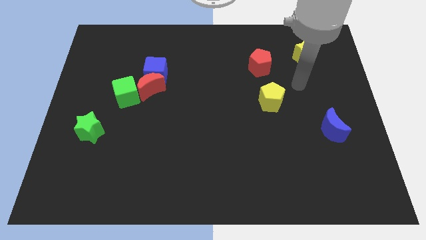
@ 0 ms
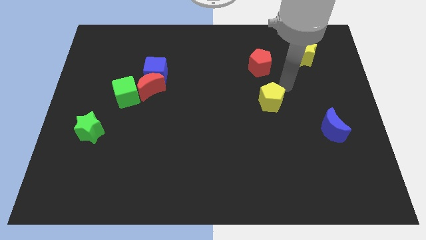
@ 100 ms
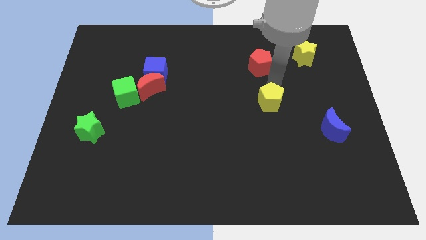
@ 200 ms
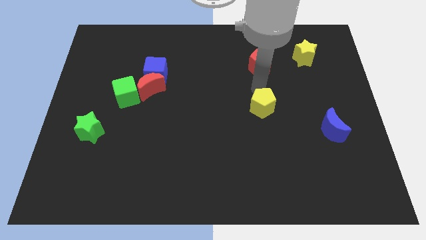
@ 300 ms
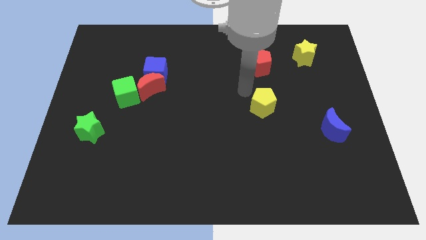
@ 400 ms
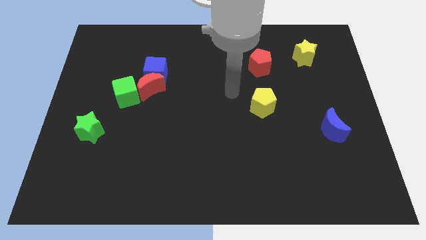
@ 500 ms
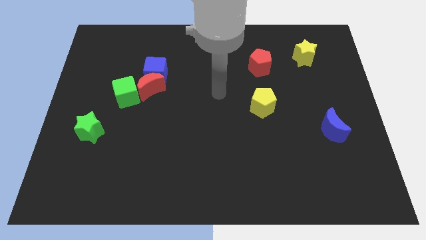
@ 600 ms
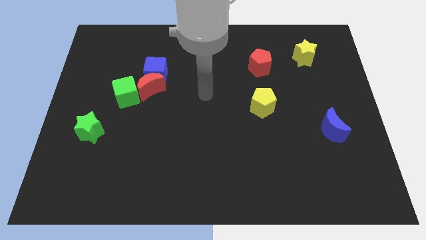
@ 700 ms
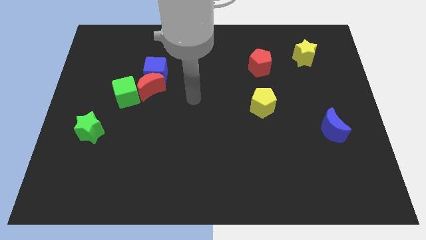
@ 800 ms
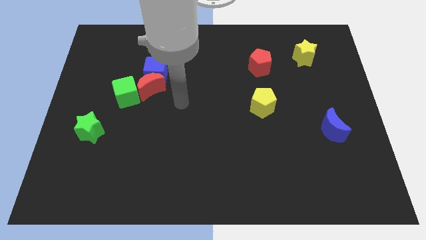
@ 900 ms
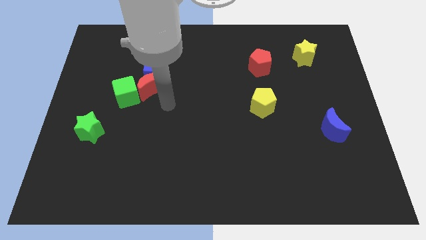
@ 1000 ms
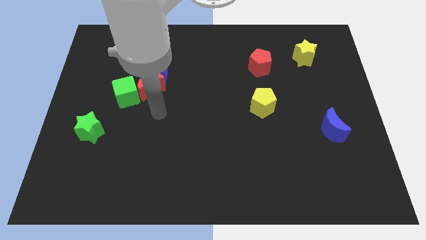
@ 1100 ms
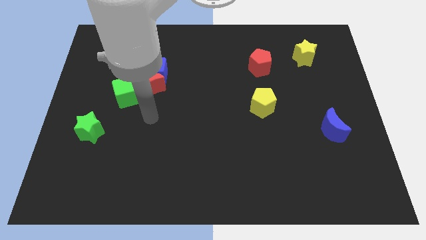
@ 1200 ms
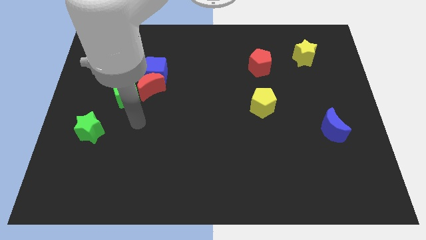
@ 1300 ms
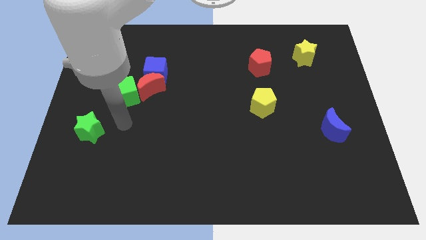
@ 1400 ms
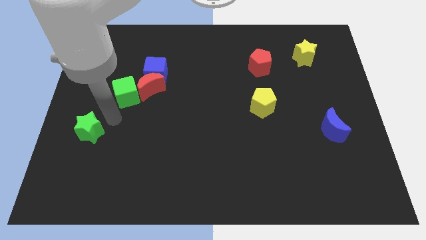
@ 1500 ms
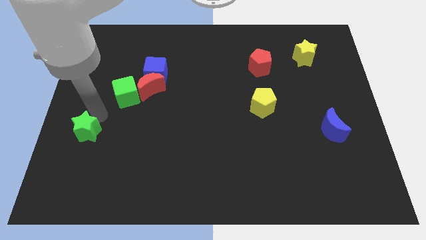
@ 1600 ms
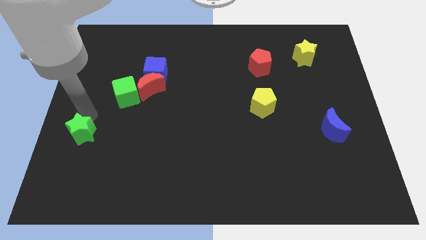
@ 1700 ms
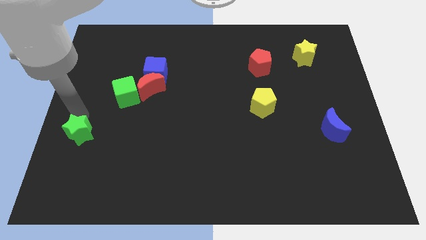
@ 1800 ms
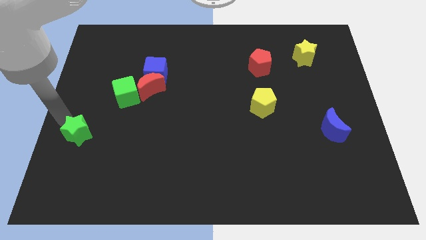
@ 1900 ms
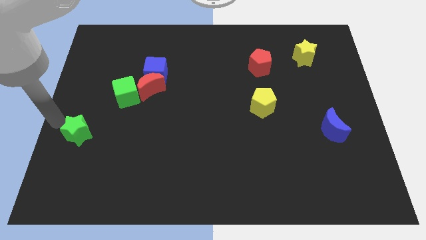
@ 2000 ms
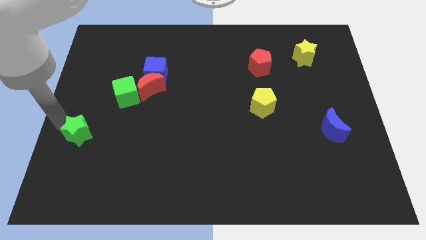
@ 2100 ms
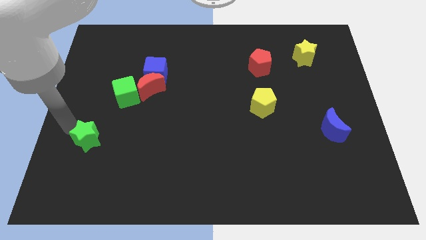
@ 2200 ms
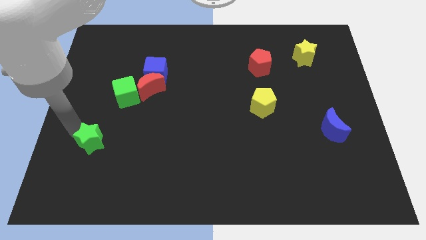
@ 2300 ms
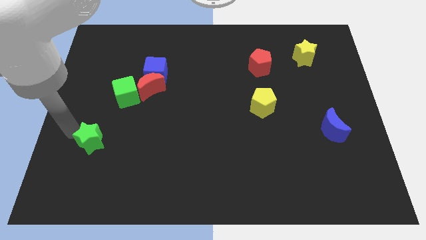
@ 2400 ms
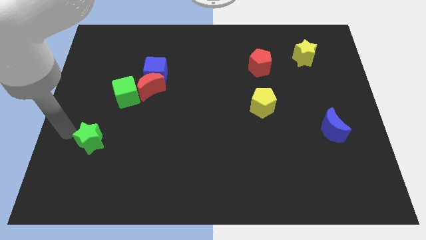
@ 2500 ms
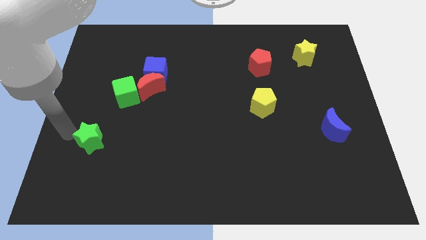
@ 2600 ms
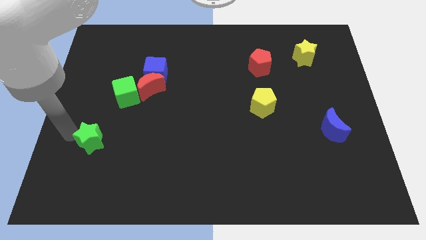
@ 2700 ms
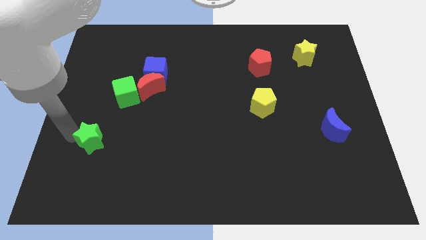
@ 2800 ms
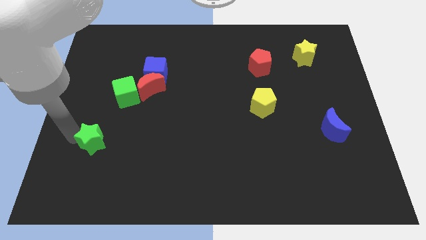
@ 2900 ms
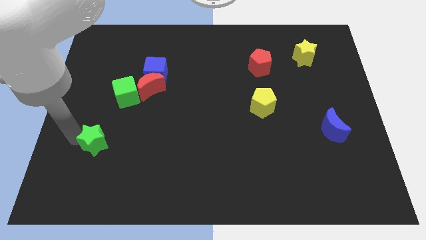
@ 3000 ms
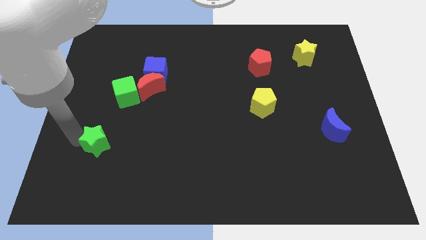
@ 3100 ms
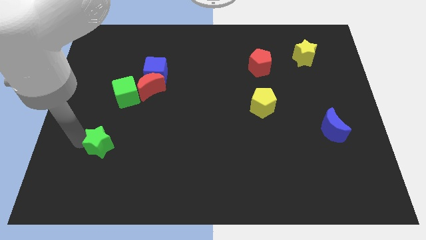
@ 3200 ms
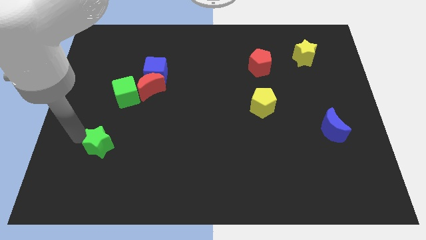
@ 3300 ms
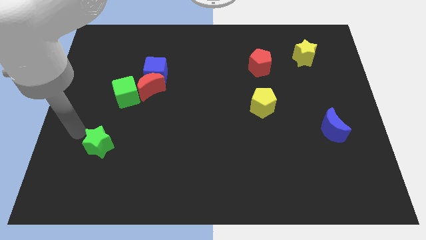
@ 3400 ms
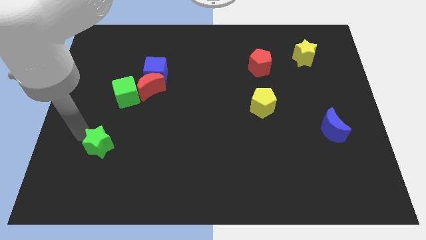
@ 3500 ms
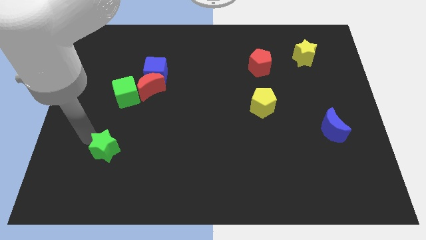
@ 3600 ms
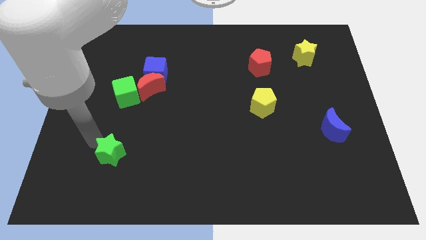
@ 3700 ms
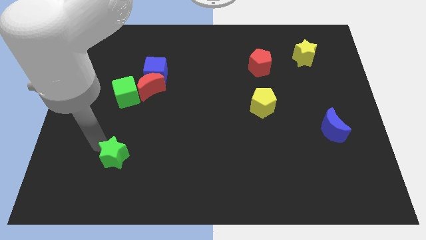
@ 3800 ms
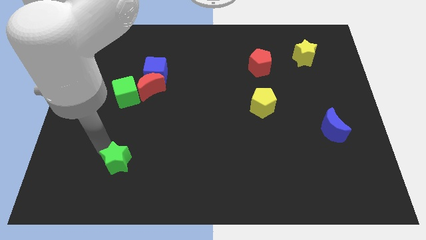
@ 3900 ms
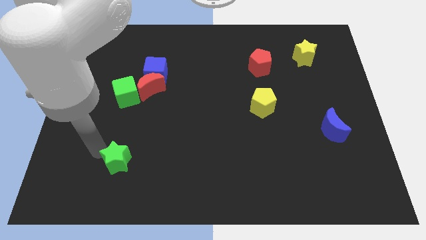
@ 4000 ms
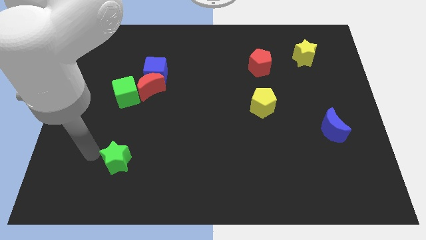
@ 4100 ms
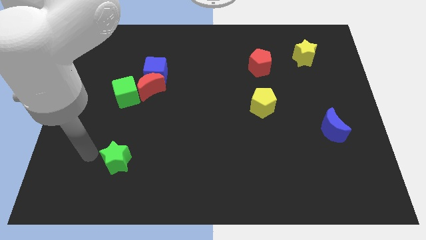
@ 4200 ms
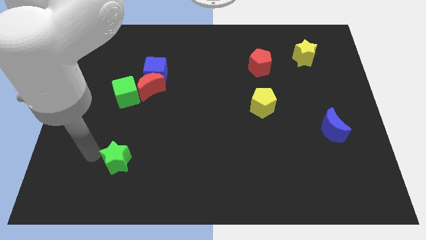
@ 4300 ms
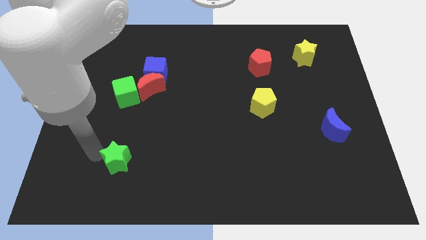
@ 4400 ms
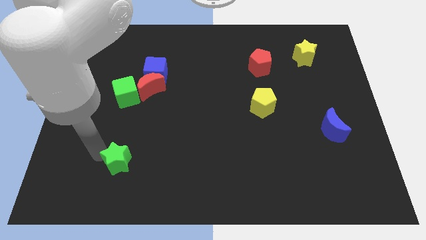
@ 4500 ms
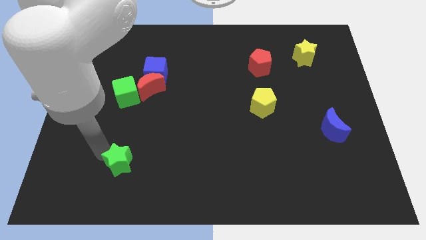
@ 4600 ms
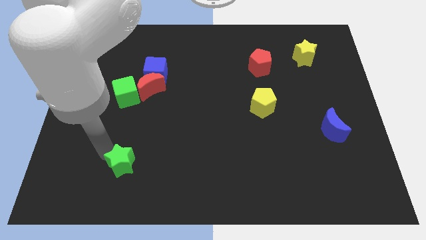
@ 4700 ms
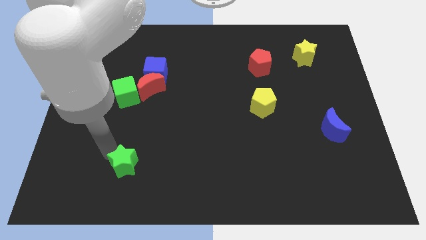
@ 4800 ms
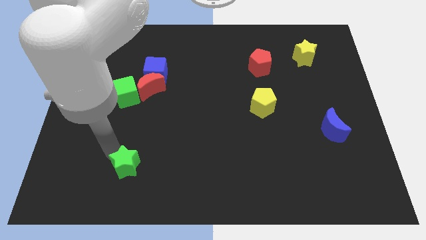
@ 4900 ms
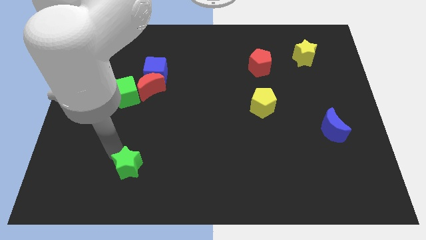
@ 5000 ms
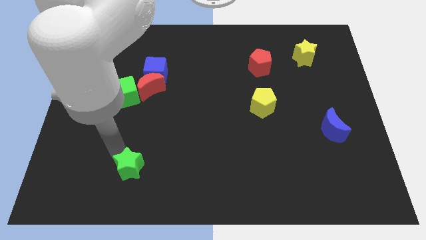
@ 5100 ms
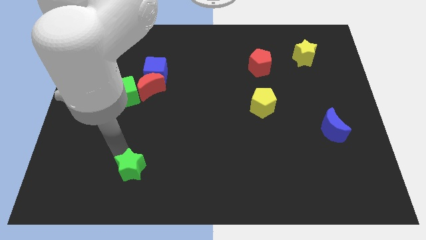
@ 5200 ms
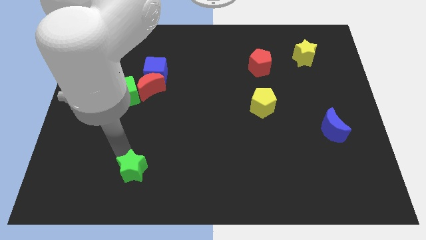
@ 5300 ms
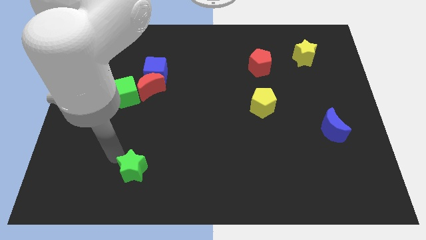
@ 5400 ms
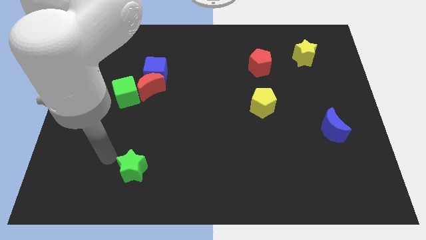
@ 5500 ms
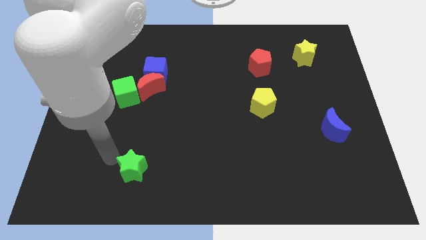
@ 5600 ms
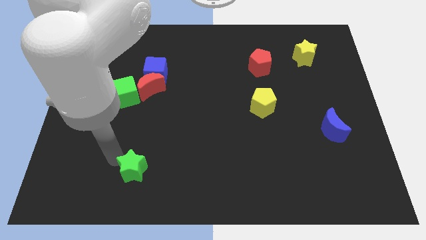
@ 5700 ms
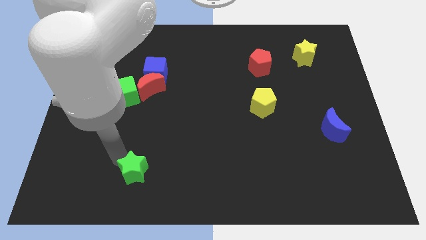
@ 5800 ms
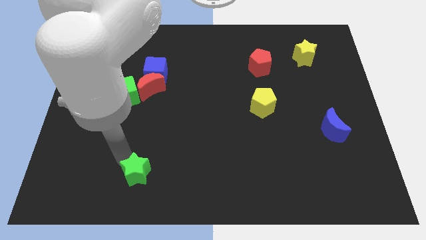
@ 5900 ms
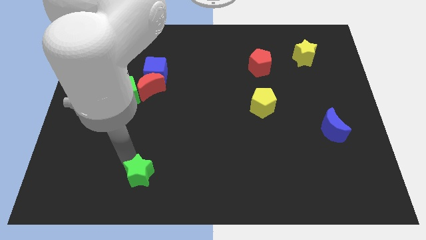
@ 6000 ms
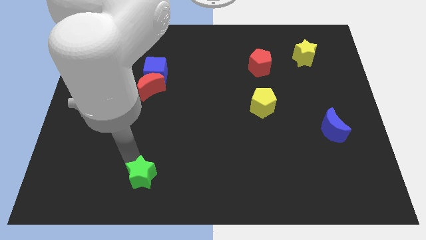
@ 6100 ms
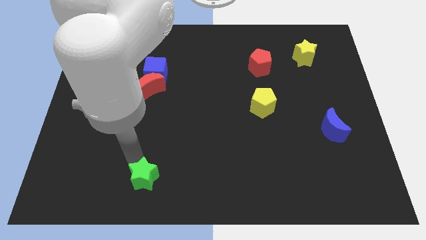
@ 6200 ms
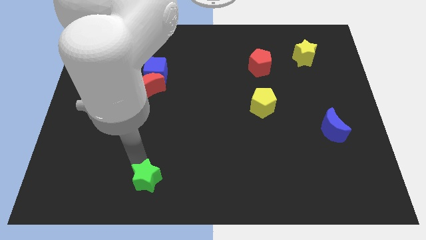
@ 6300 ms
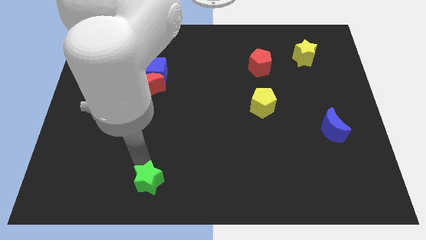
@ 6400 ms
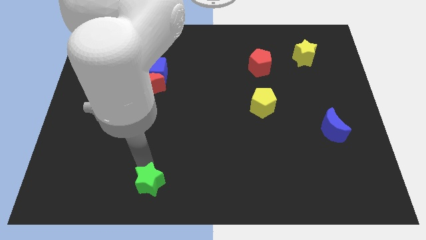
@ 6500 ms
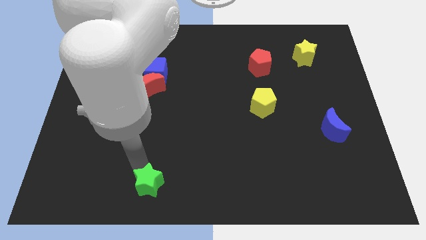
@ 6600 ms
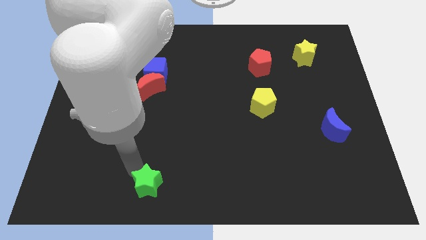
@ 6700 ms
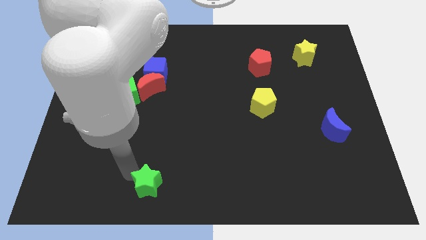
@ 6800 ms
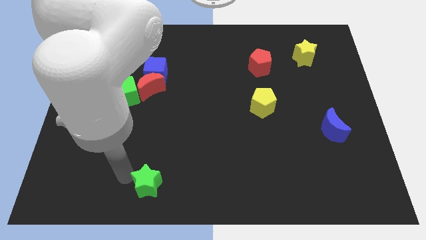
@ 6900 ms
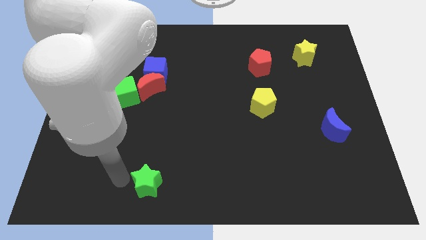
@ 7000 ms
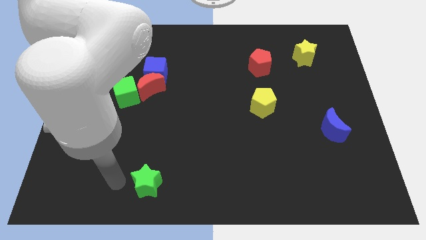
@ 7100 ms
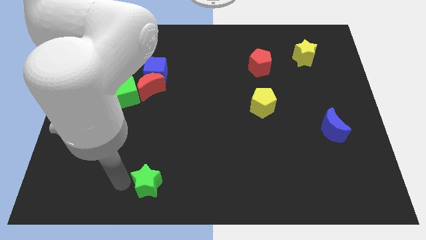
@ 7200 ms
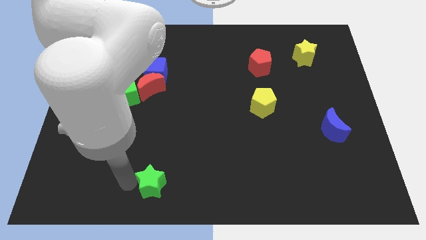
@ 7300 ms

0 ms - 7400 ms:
move the green star to the bottom side
